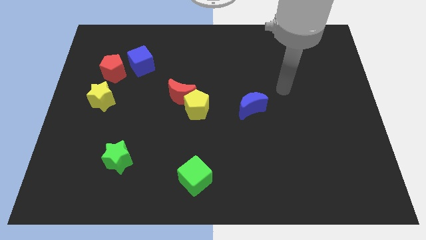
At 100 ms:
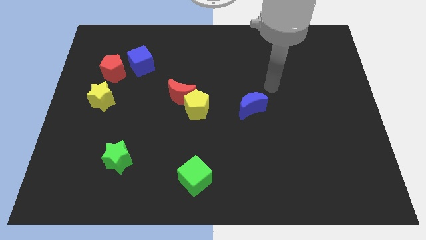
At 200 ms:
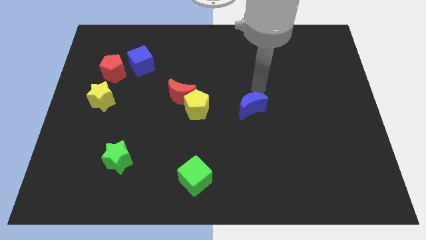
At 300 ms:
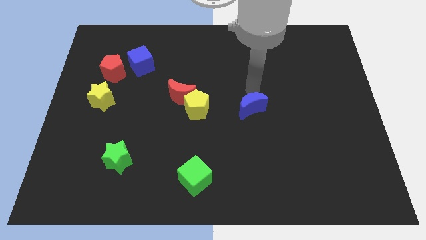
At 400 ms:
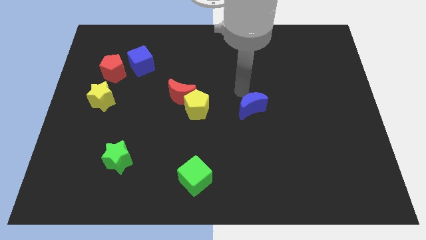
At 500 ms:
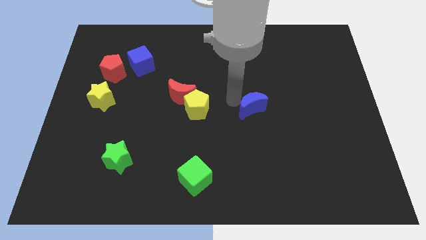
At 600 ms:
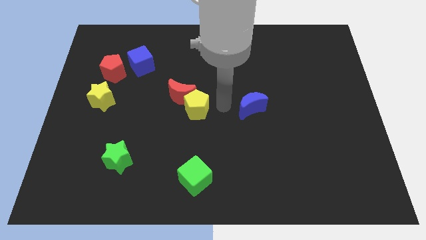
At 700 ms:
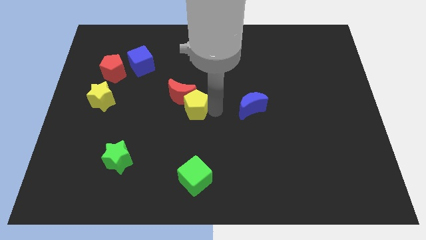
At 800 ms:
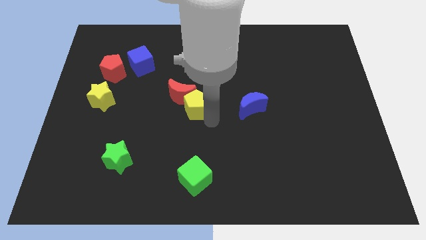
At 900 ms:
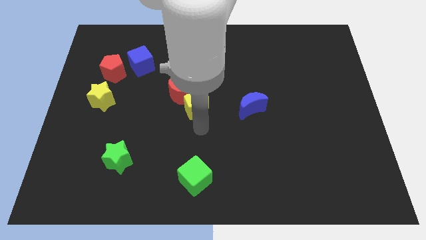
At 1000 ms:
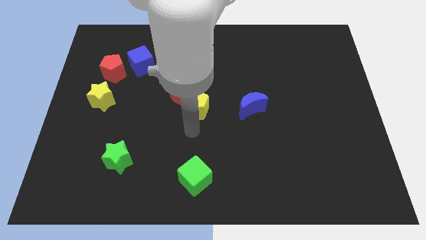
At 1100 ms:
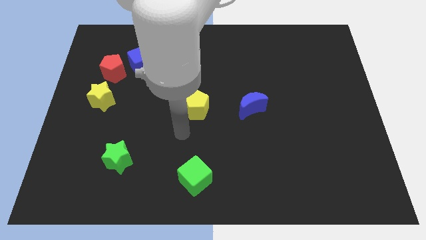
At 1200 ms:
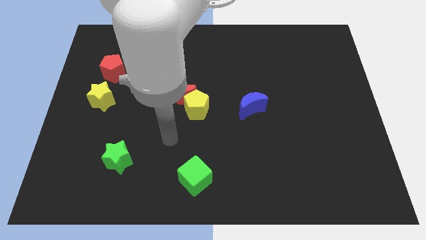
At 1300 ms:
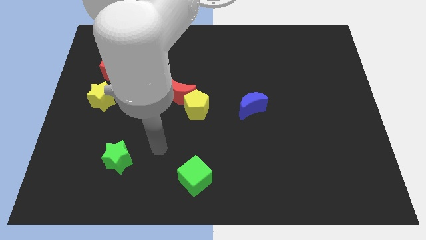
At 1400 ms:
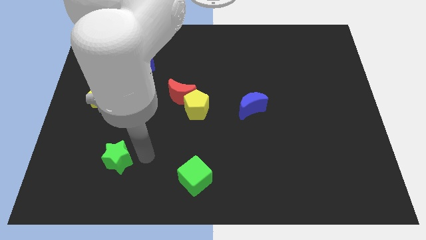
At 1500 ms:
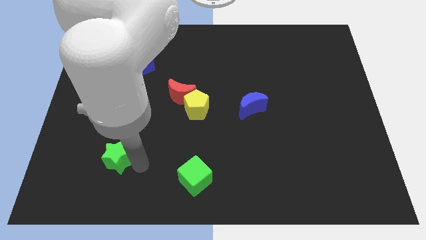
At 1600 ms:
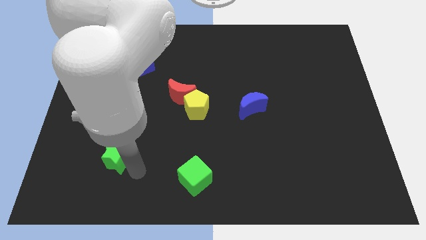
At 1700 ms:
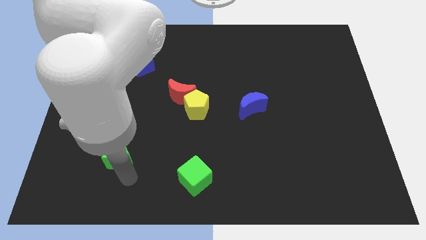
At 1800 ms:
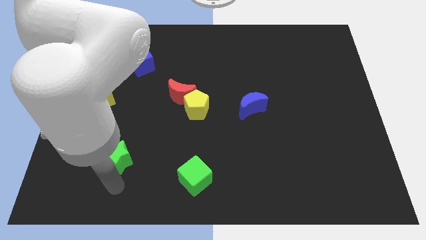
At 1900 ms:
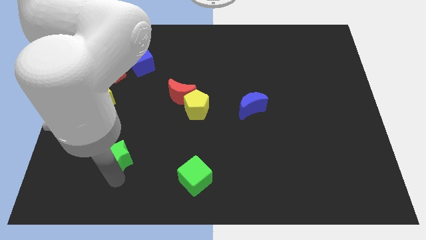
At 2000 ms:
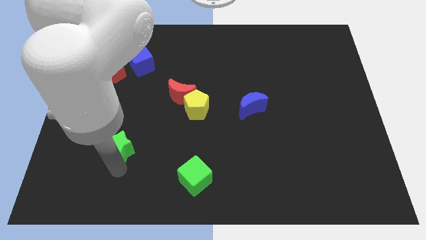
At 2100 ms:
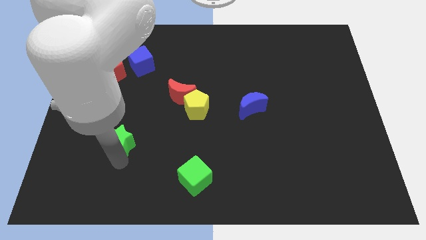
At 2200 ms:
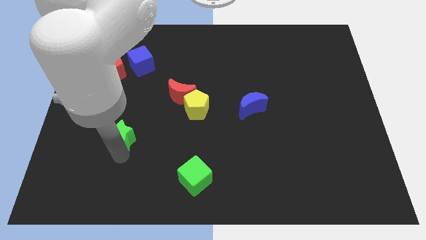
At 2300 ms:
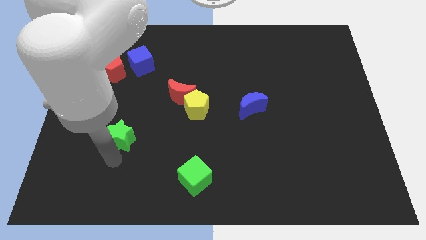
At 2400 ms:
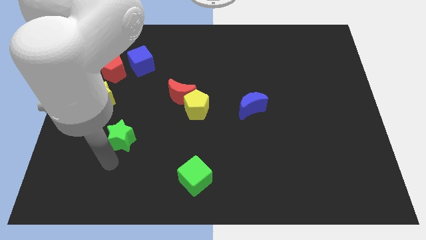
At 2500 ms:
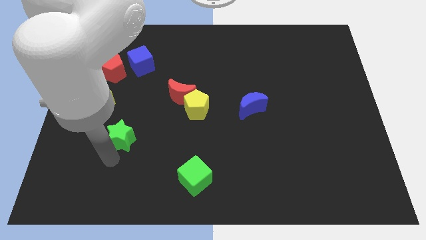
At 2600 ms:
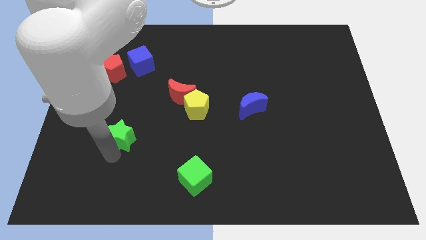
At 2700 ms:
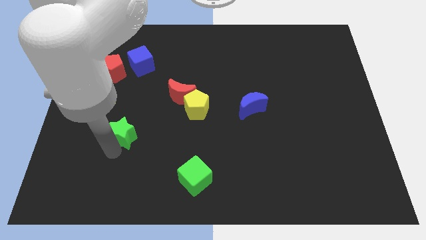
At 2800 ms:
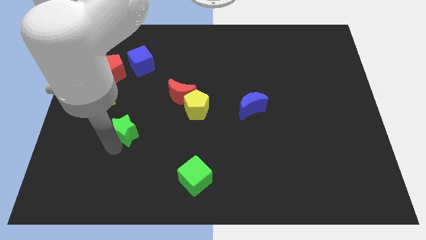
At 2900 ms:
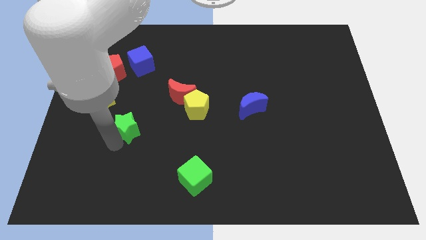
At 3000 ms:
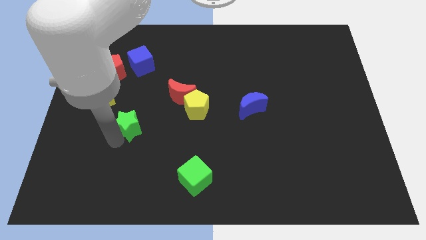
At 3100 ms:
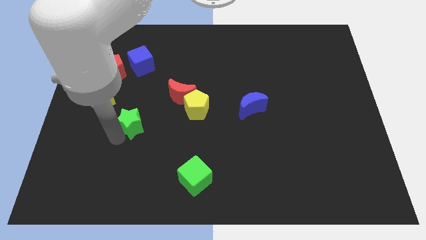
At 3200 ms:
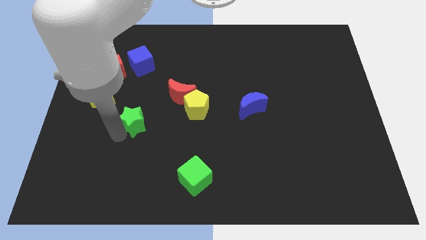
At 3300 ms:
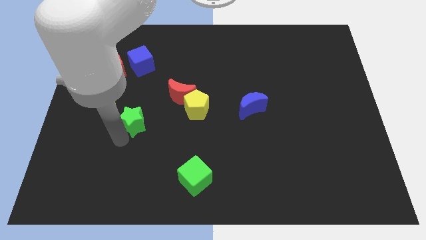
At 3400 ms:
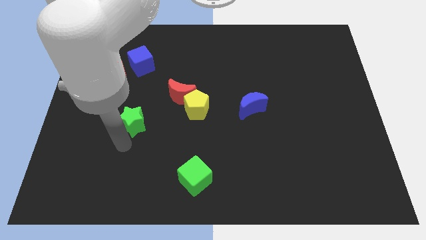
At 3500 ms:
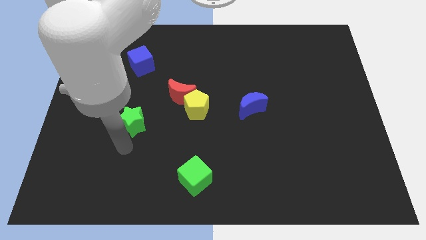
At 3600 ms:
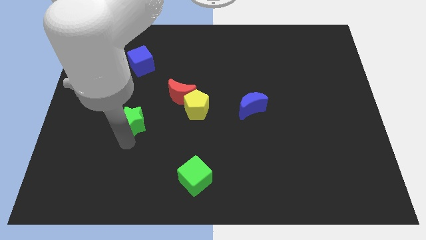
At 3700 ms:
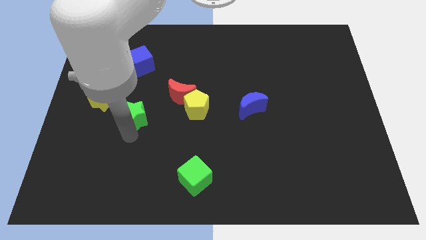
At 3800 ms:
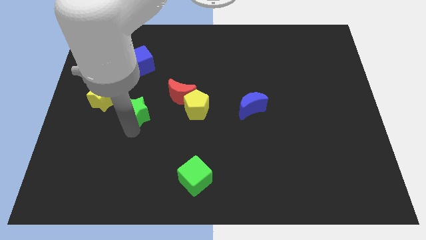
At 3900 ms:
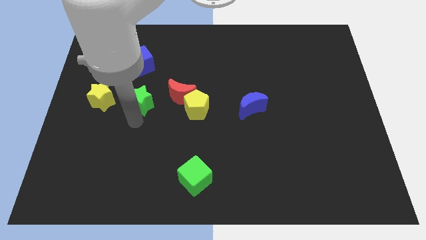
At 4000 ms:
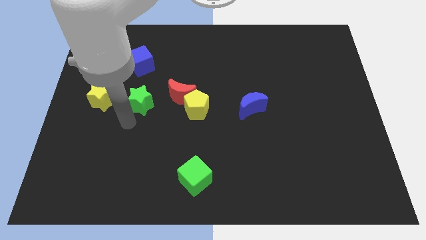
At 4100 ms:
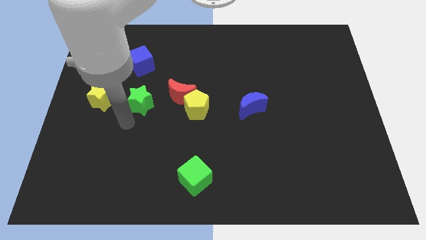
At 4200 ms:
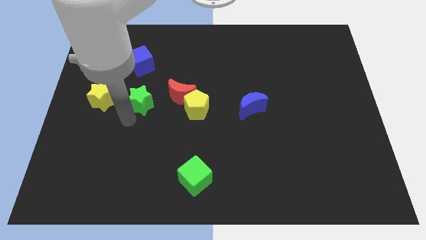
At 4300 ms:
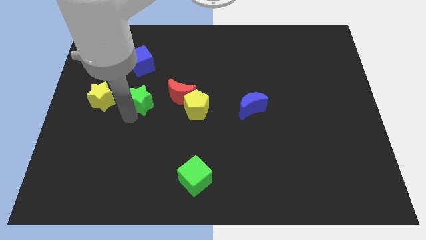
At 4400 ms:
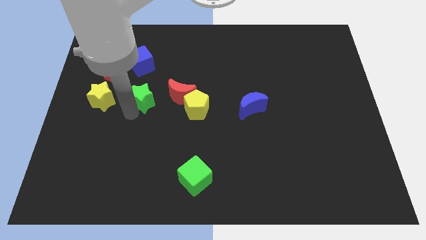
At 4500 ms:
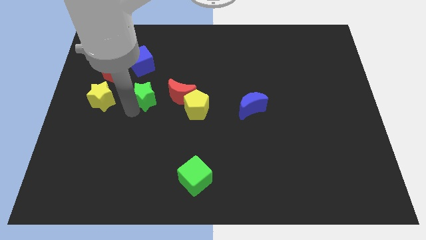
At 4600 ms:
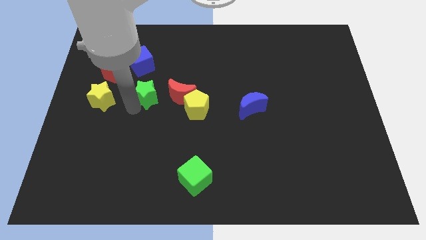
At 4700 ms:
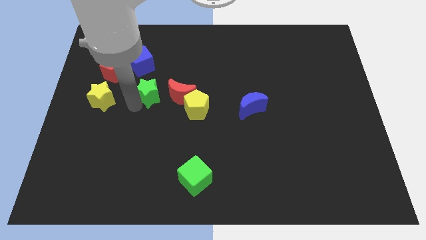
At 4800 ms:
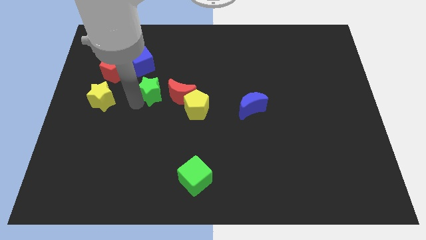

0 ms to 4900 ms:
push the green star to the top left side of the red moon

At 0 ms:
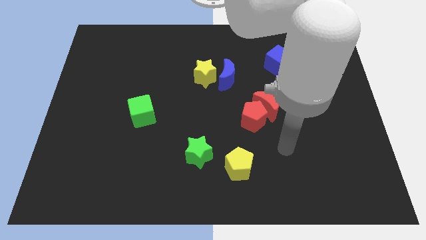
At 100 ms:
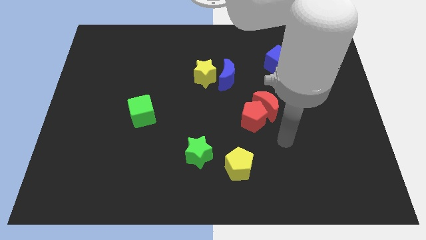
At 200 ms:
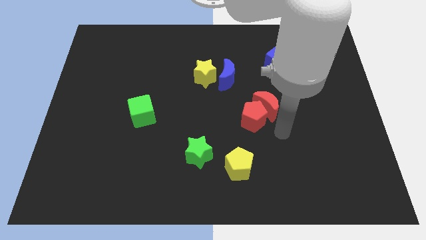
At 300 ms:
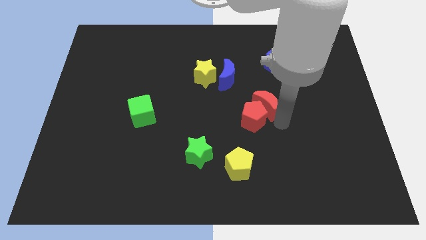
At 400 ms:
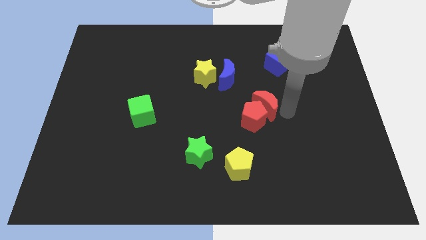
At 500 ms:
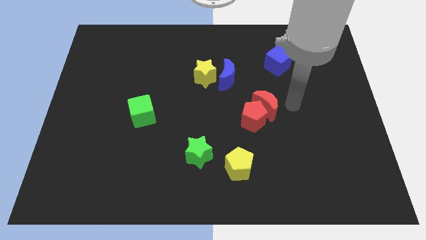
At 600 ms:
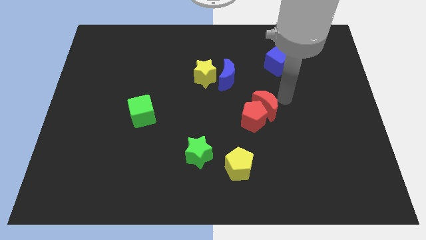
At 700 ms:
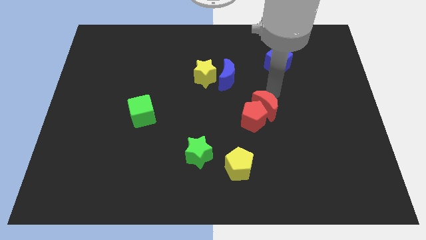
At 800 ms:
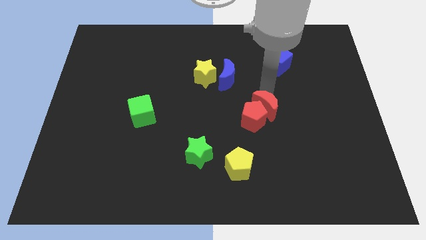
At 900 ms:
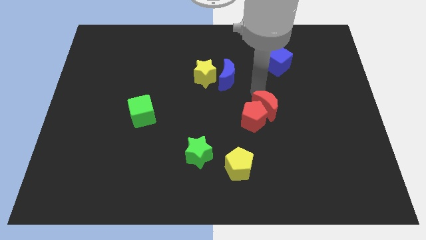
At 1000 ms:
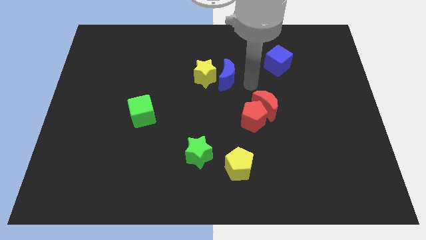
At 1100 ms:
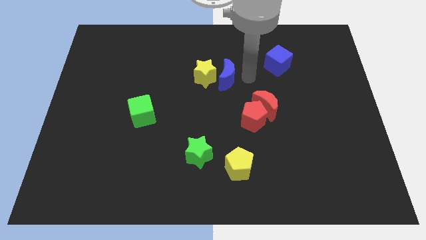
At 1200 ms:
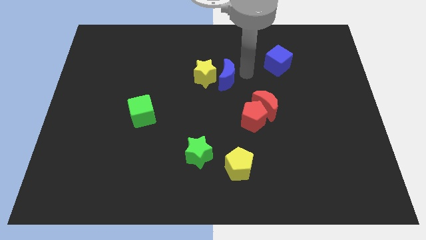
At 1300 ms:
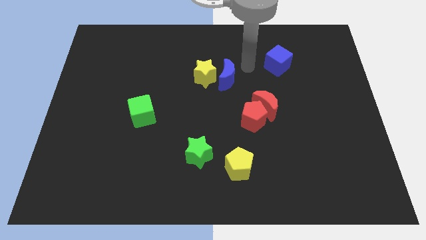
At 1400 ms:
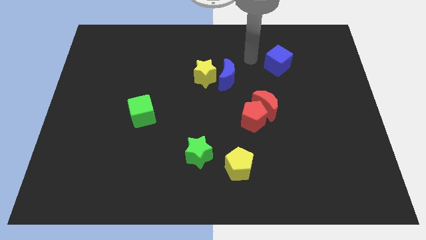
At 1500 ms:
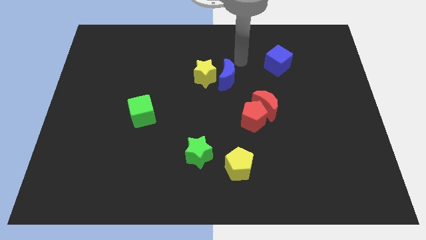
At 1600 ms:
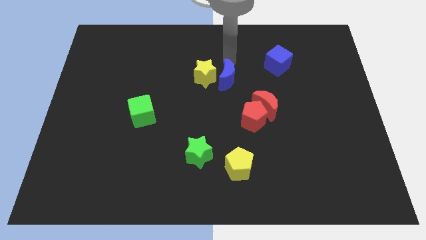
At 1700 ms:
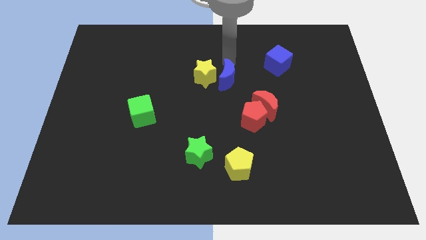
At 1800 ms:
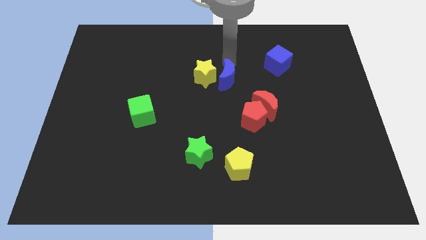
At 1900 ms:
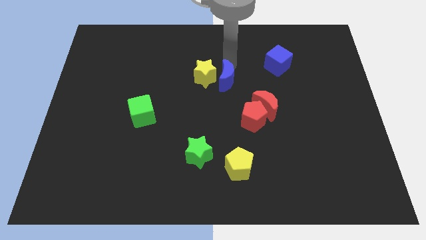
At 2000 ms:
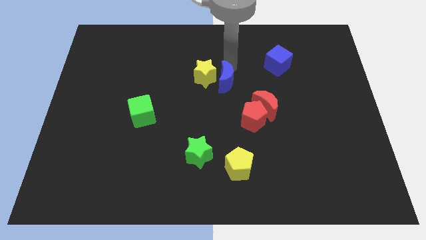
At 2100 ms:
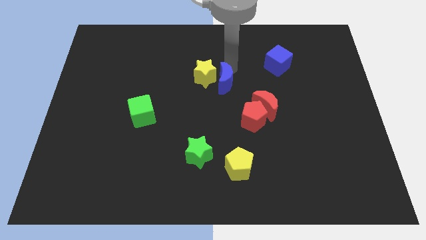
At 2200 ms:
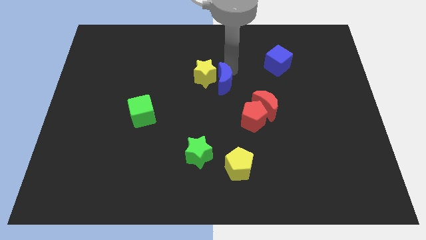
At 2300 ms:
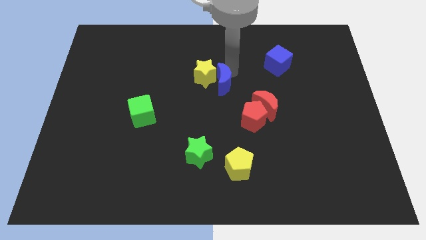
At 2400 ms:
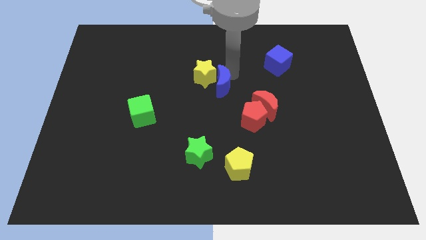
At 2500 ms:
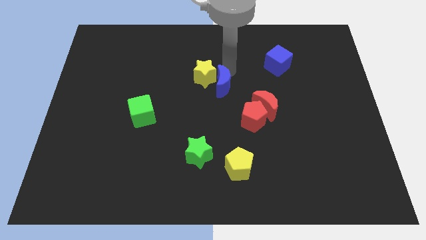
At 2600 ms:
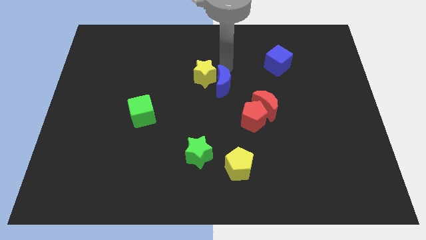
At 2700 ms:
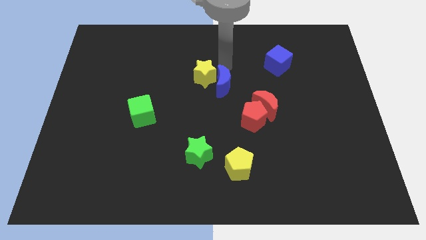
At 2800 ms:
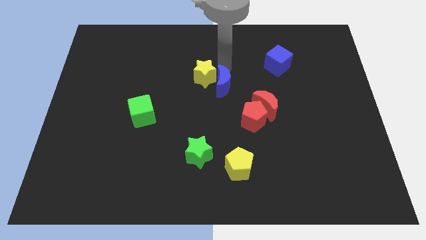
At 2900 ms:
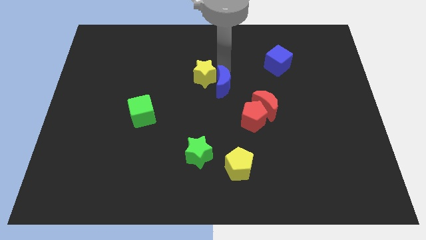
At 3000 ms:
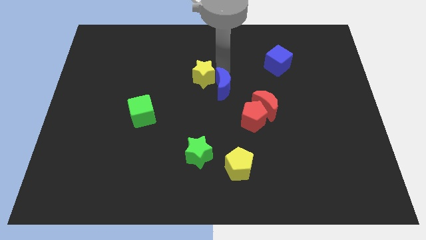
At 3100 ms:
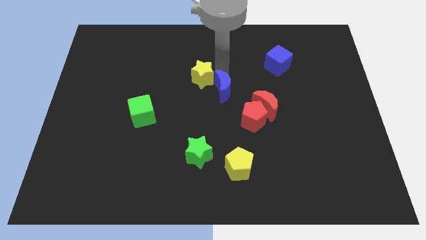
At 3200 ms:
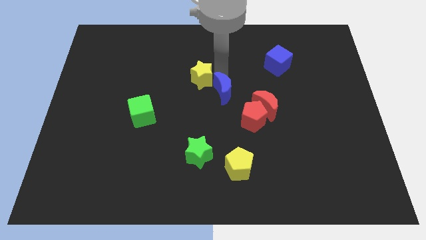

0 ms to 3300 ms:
slide the blue moon left of the red moon

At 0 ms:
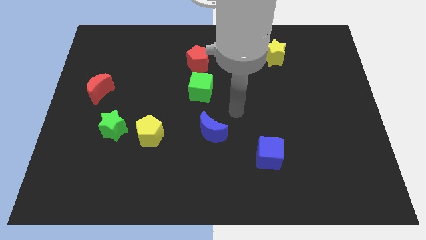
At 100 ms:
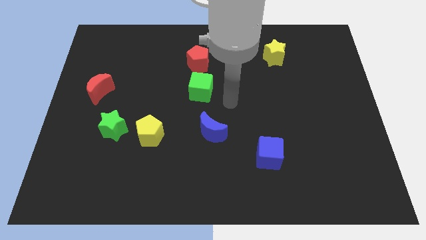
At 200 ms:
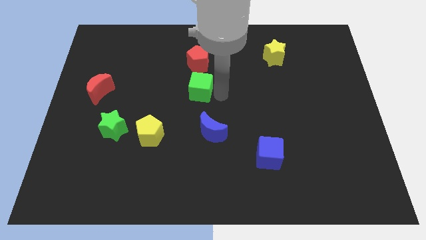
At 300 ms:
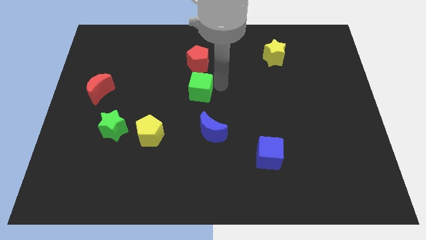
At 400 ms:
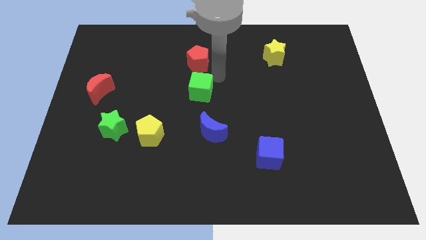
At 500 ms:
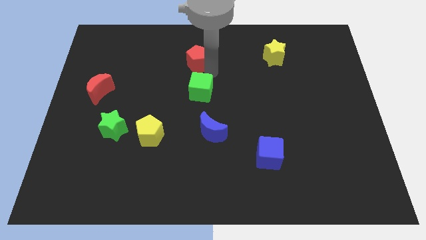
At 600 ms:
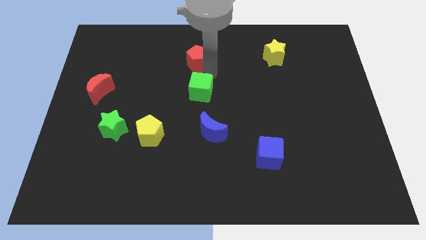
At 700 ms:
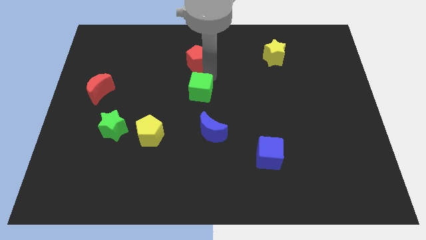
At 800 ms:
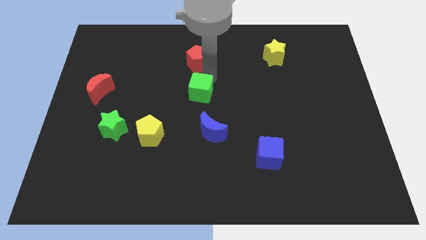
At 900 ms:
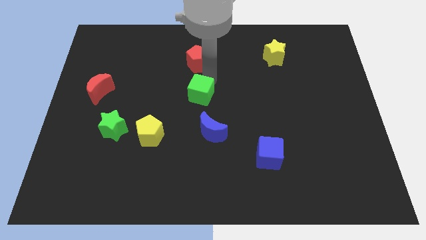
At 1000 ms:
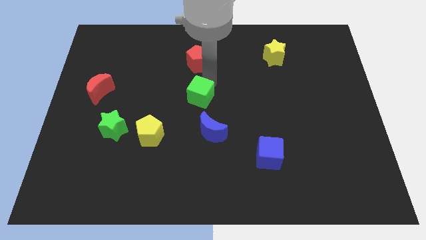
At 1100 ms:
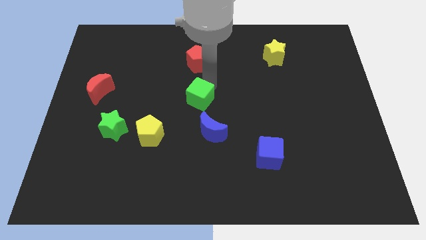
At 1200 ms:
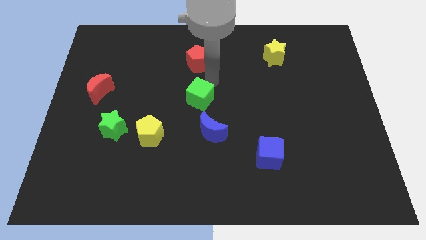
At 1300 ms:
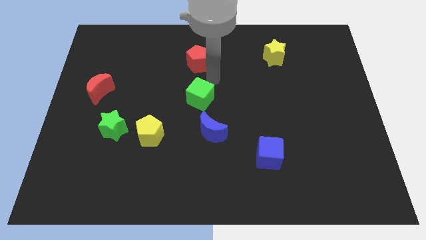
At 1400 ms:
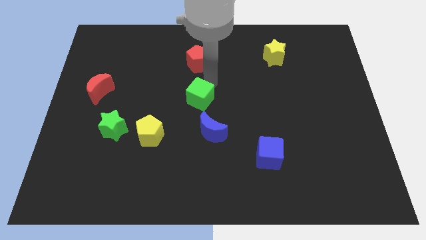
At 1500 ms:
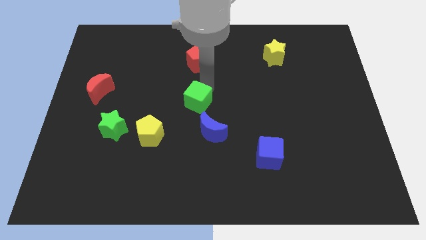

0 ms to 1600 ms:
slide the green cube to the top left of the blue moon
